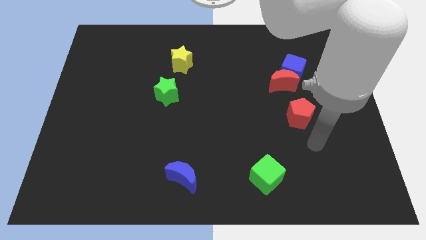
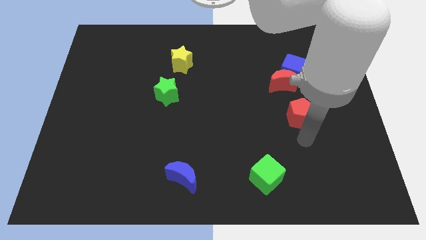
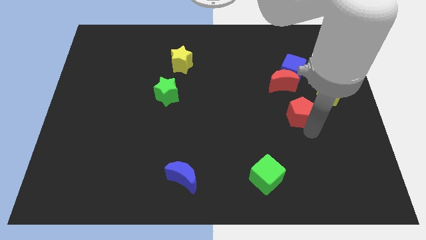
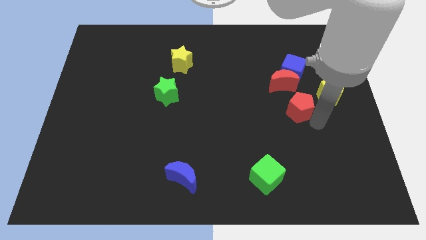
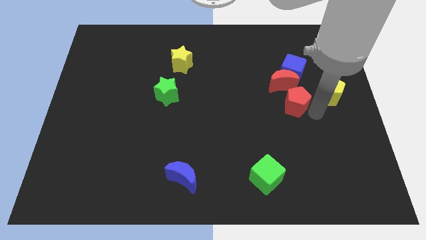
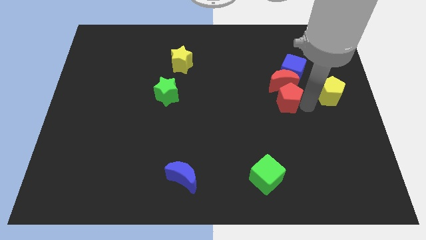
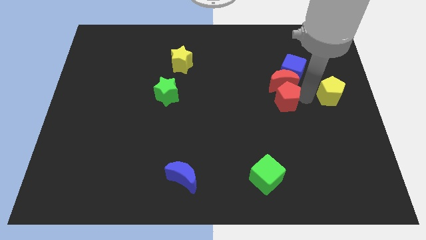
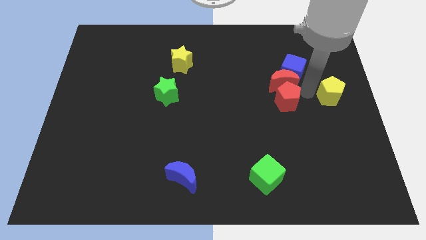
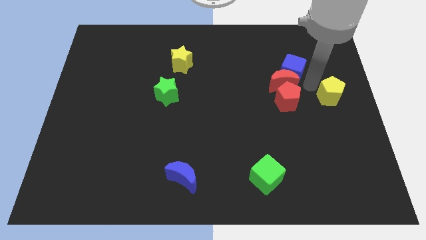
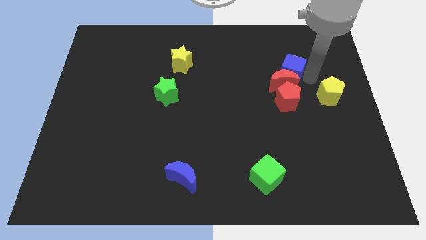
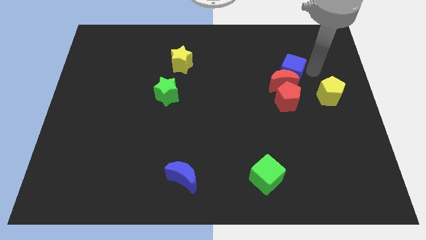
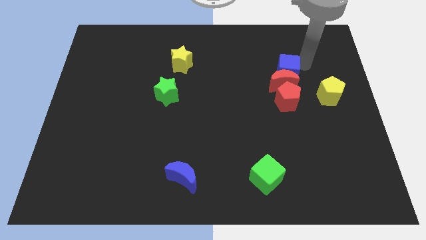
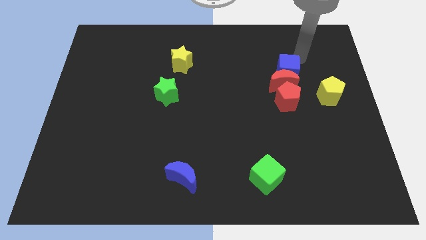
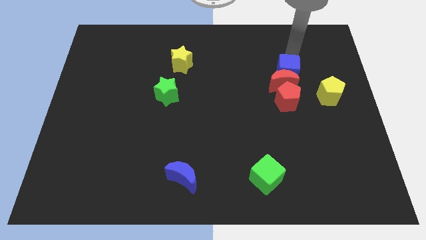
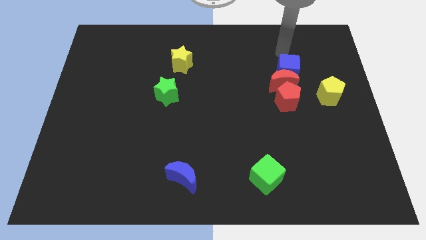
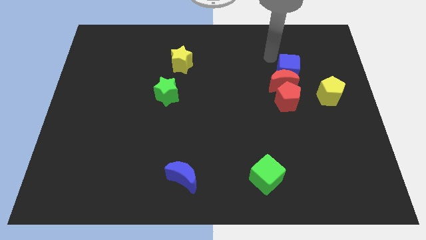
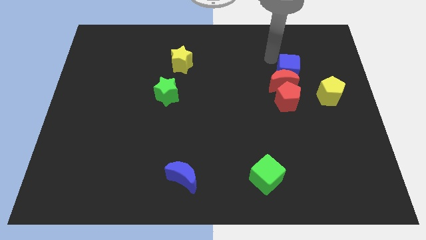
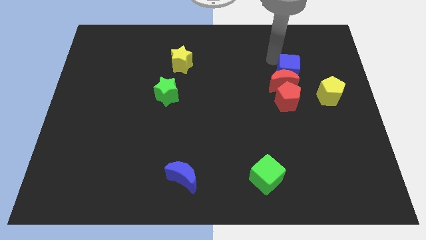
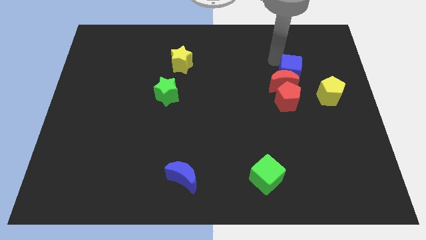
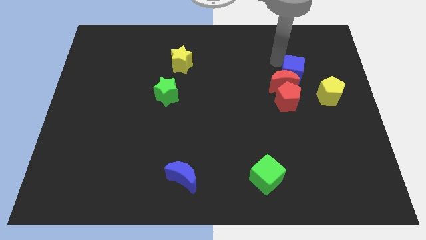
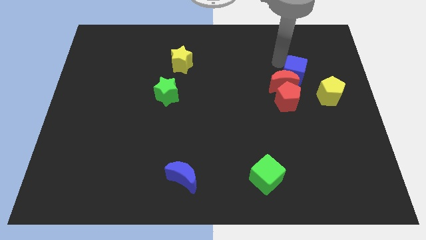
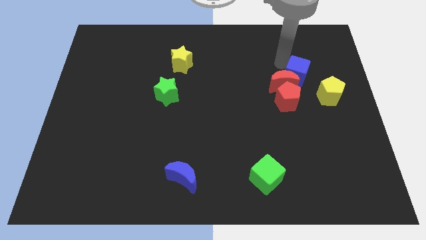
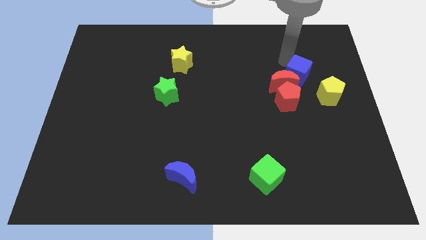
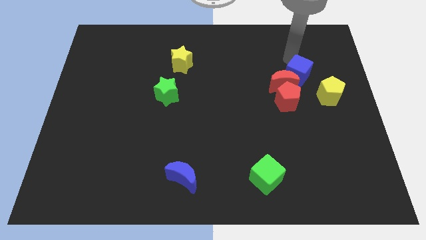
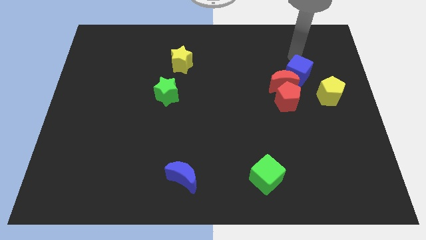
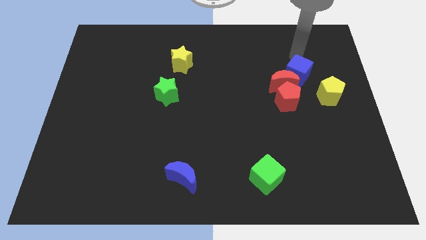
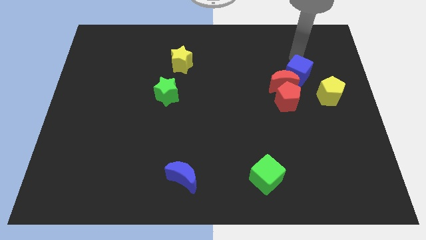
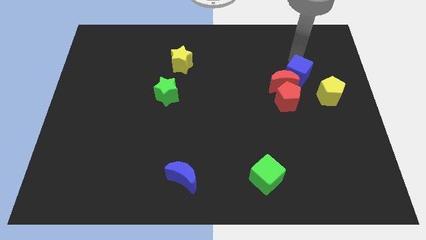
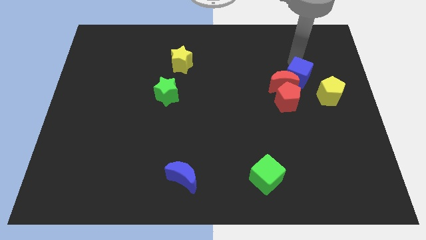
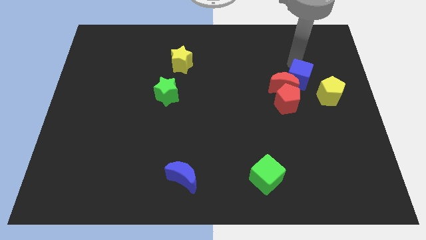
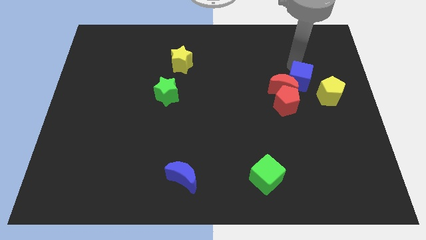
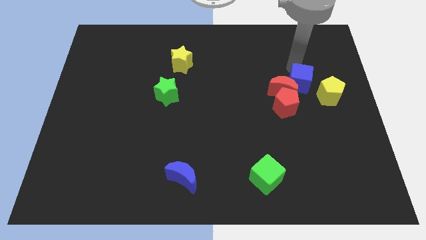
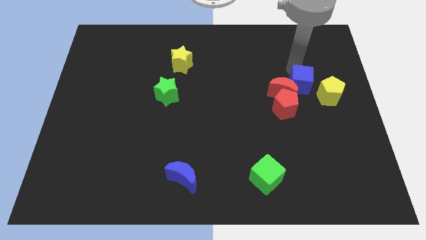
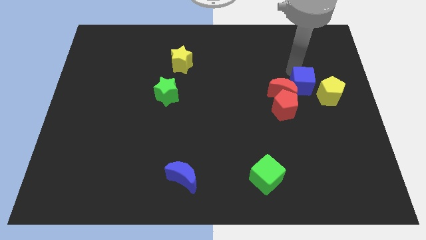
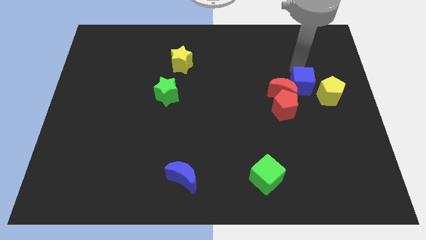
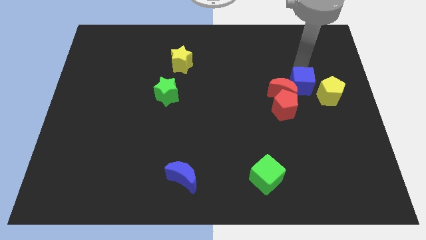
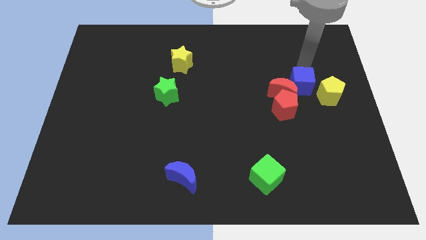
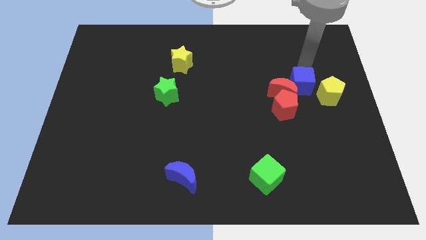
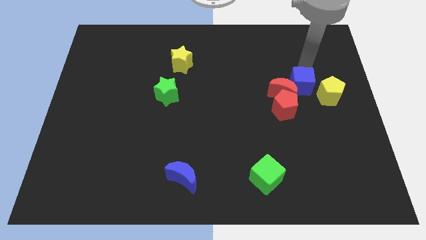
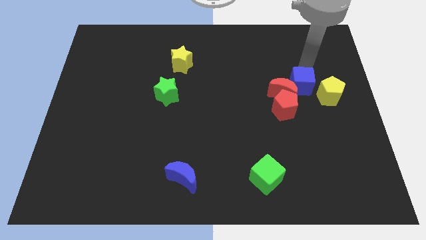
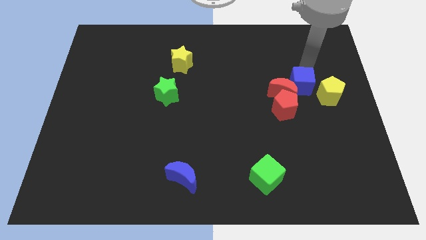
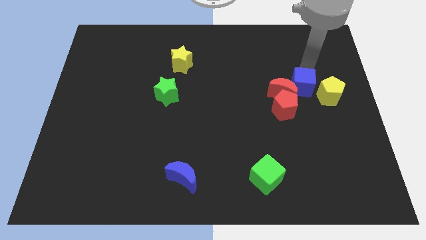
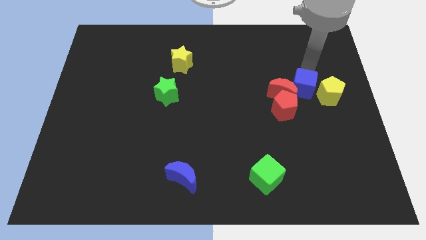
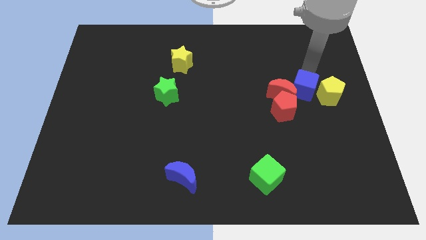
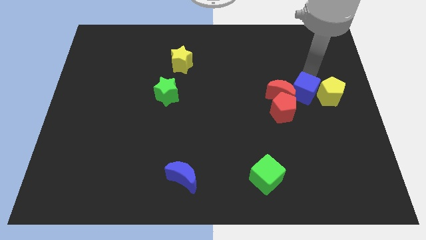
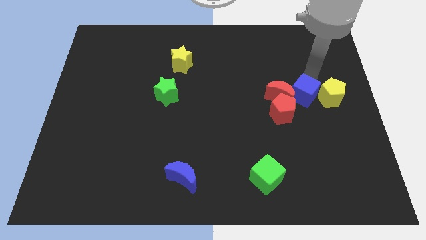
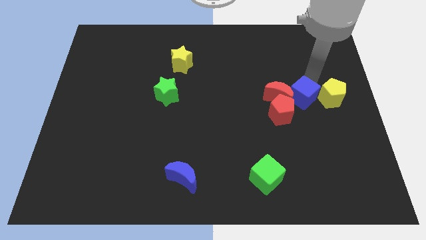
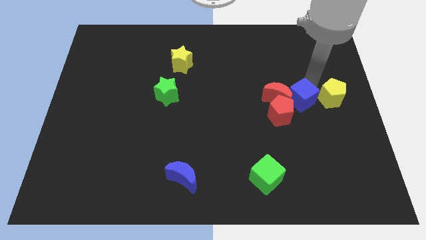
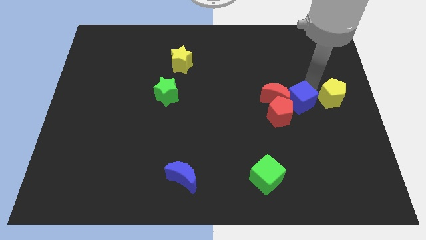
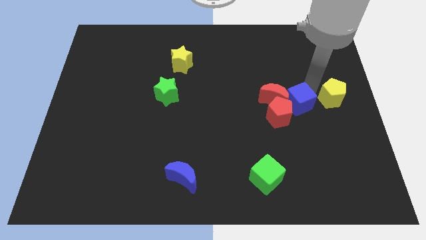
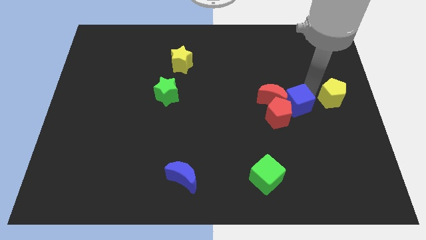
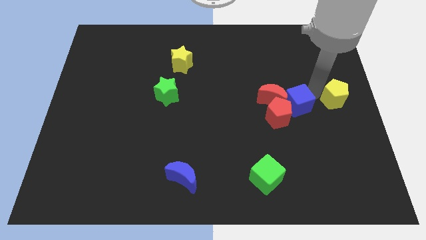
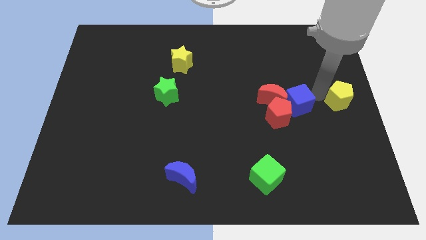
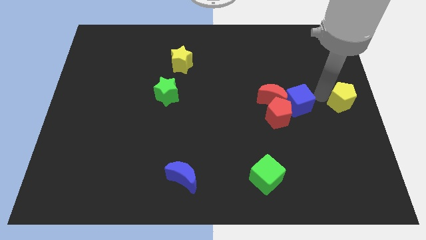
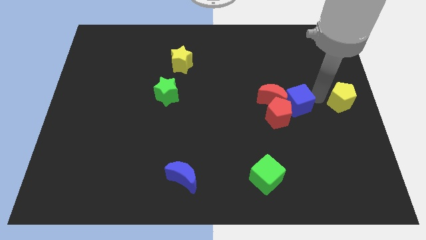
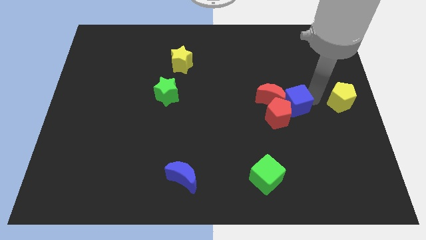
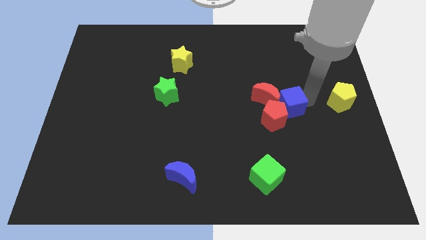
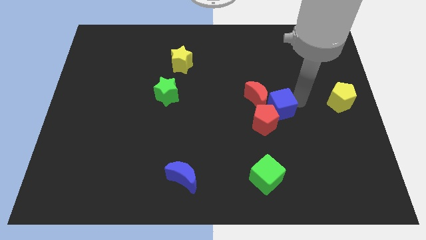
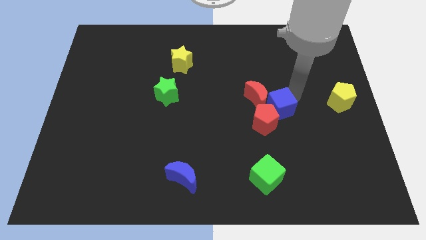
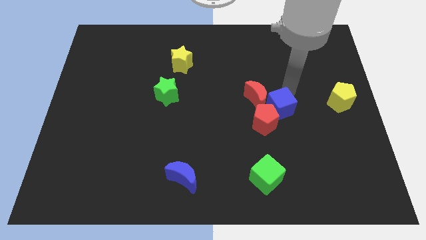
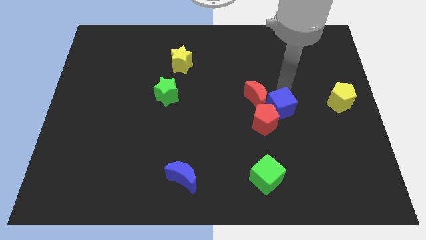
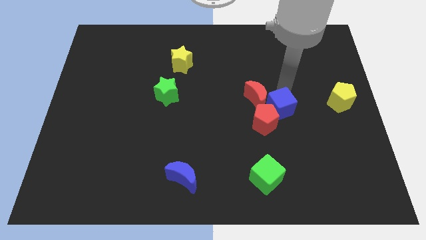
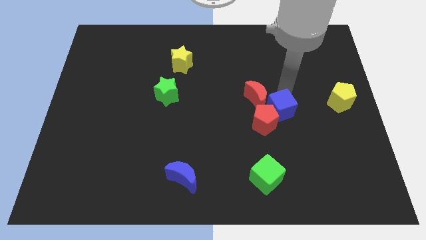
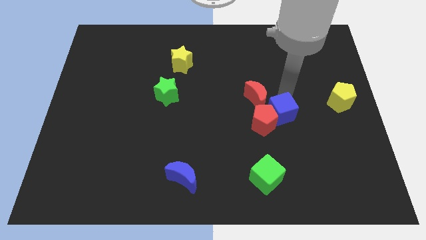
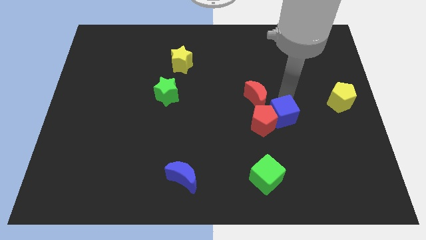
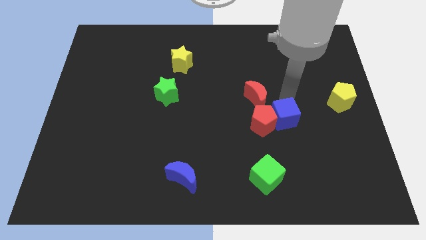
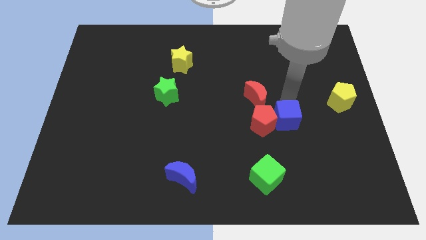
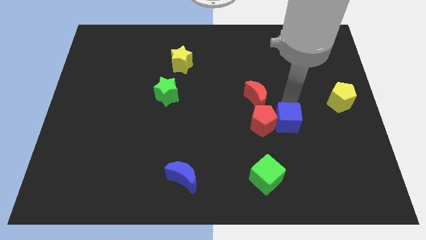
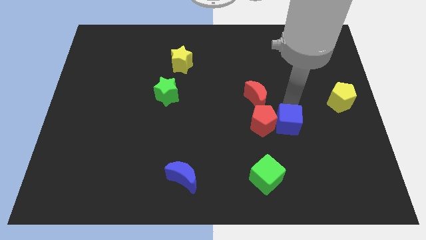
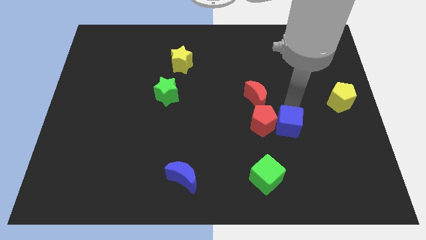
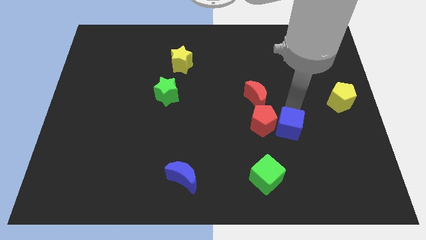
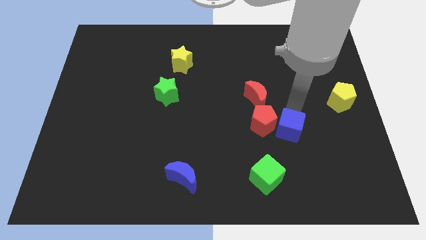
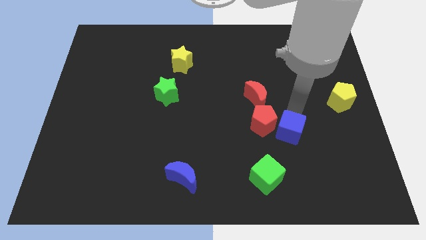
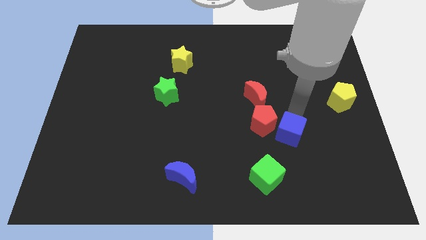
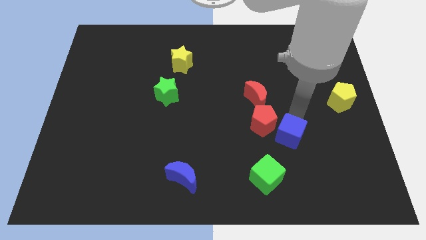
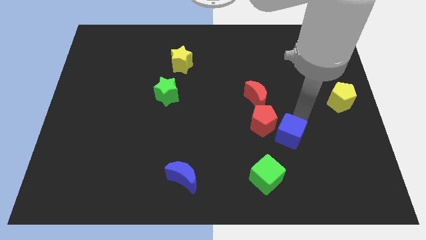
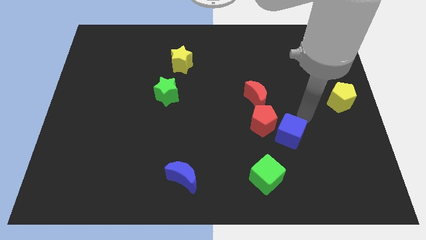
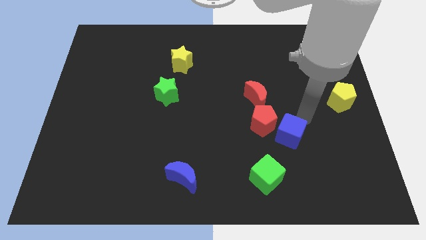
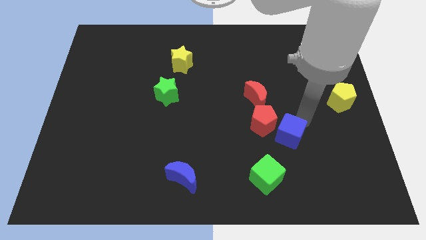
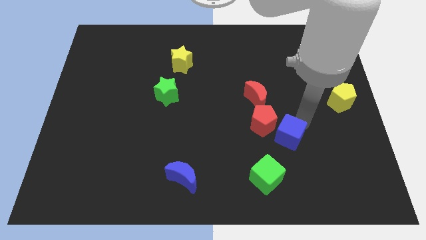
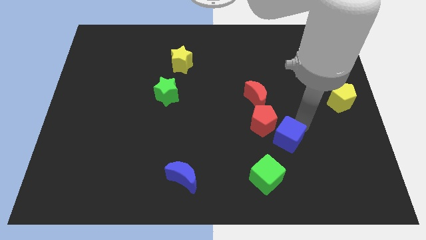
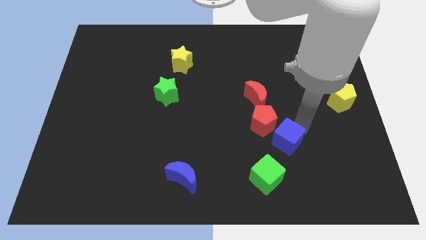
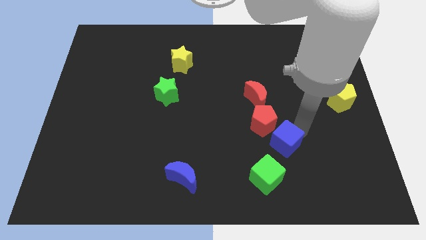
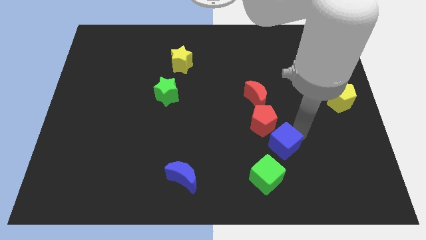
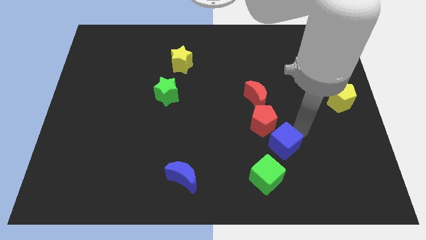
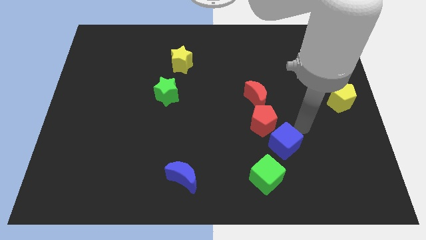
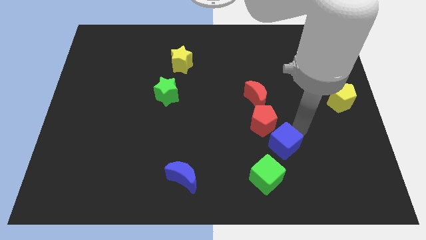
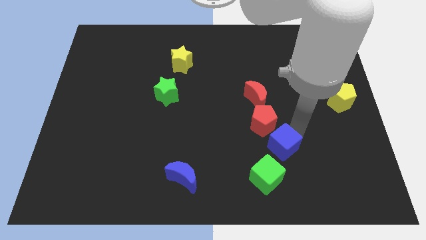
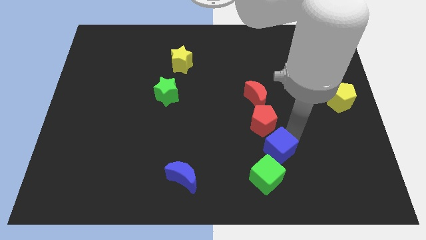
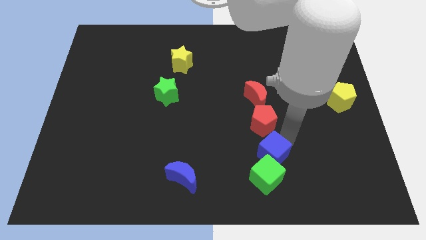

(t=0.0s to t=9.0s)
push the blue cube close to the green cube
